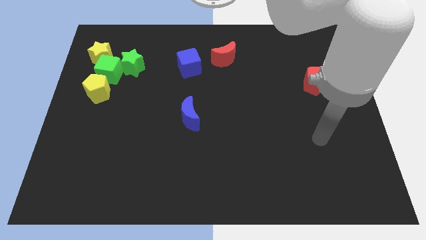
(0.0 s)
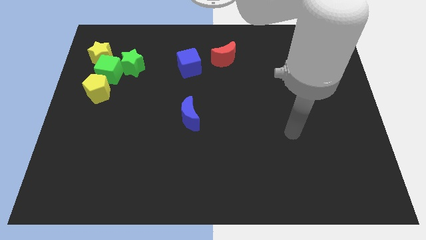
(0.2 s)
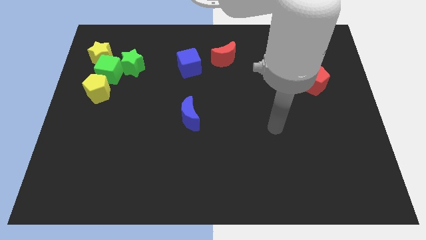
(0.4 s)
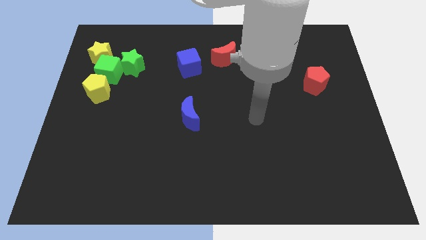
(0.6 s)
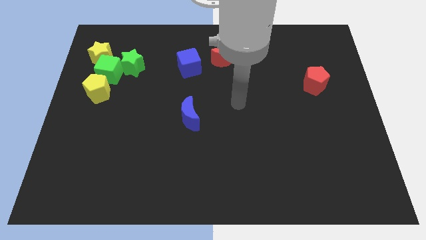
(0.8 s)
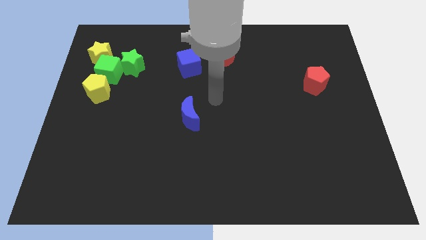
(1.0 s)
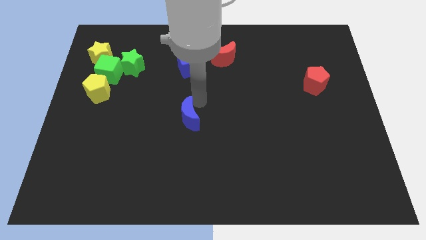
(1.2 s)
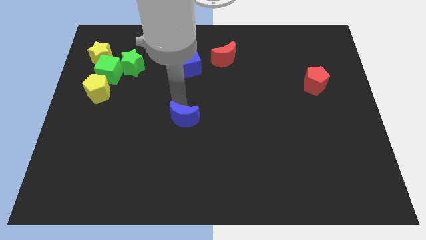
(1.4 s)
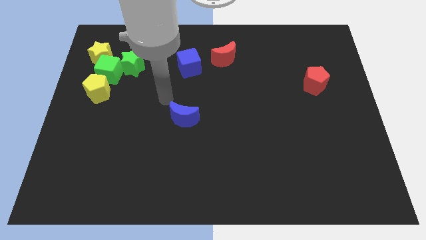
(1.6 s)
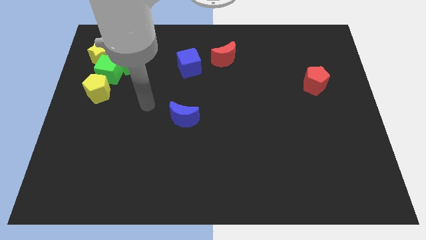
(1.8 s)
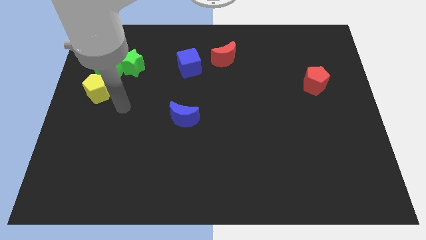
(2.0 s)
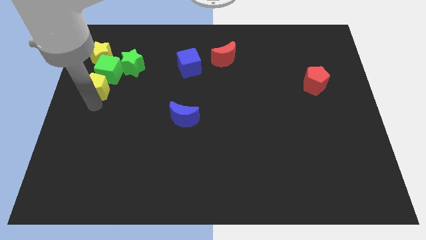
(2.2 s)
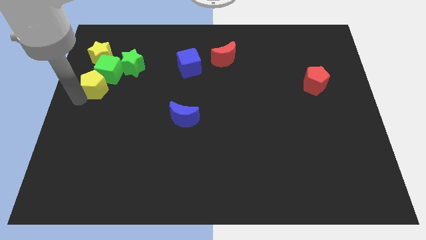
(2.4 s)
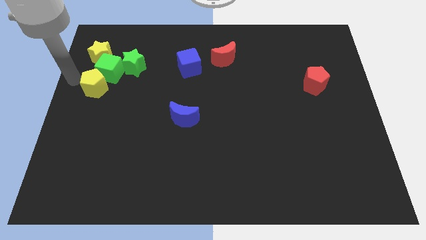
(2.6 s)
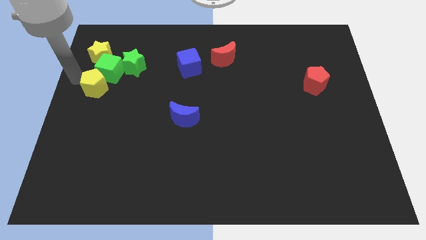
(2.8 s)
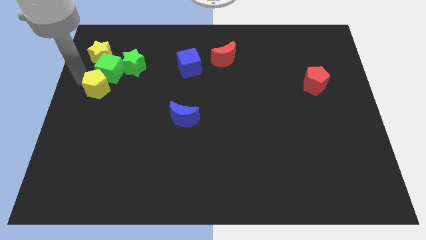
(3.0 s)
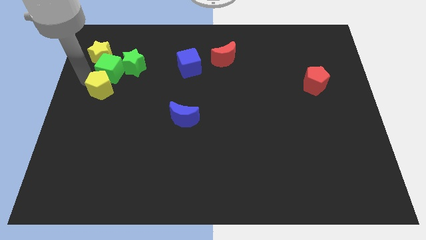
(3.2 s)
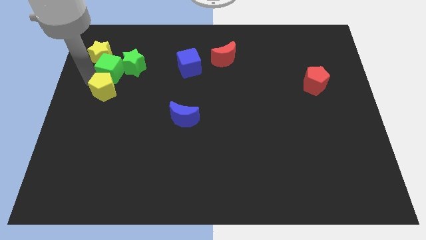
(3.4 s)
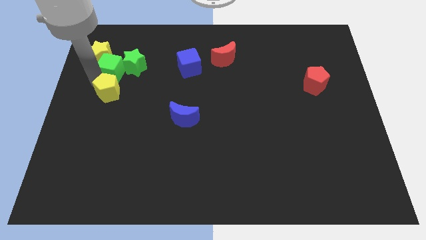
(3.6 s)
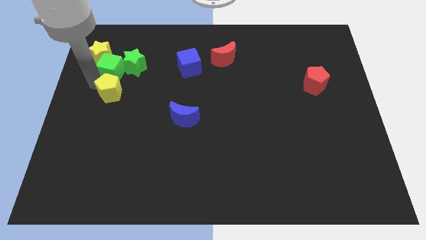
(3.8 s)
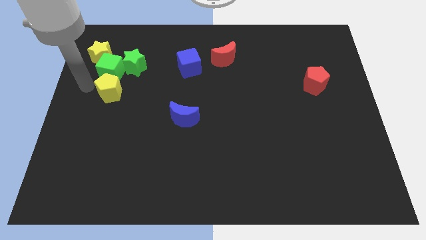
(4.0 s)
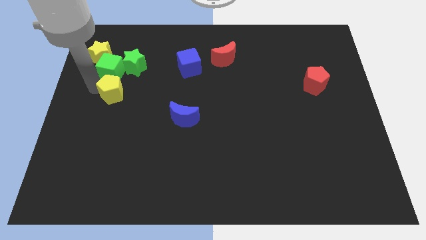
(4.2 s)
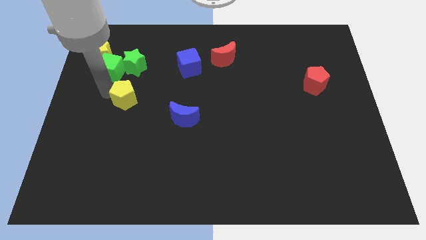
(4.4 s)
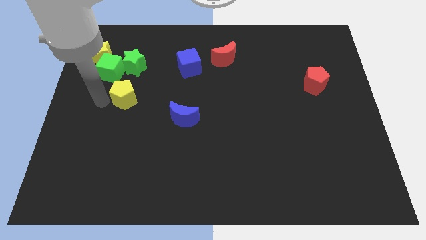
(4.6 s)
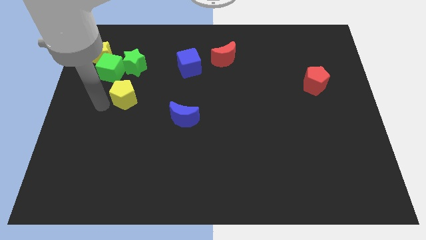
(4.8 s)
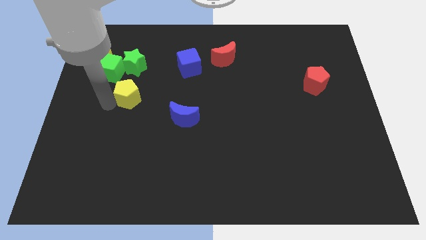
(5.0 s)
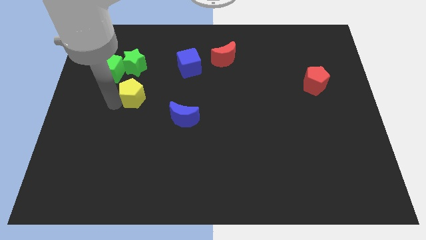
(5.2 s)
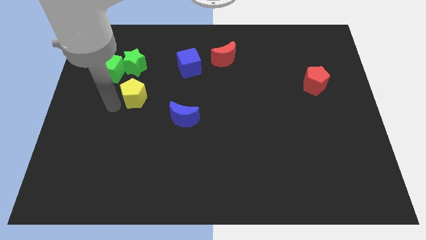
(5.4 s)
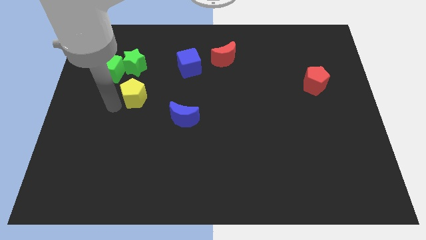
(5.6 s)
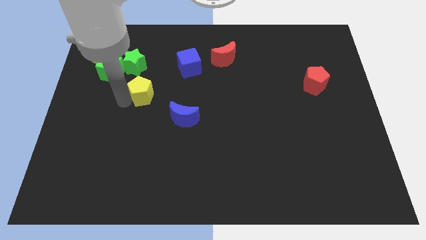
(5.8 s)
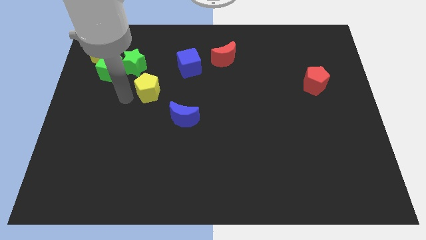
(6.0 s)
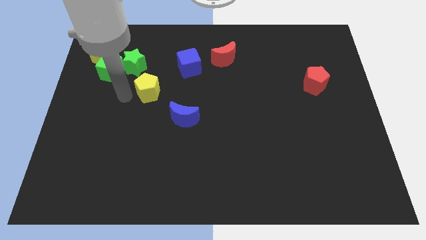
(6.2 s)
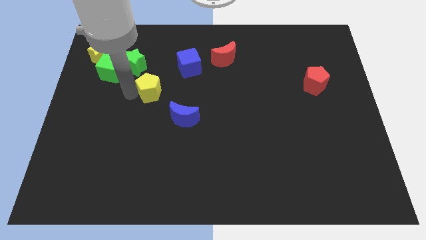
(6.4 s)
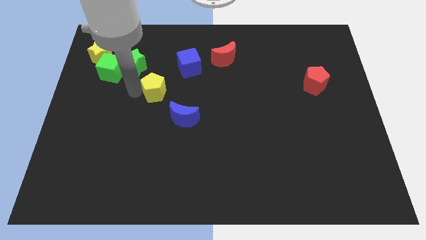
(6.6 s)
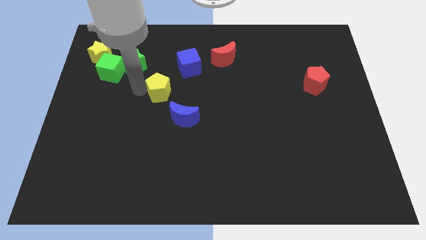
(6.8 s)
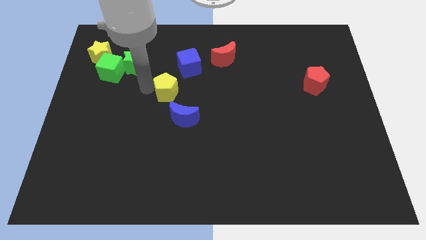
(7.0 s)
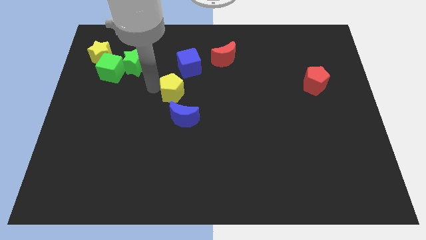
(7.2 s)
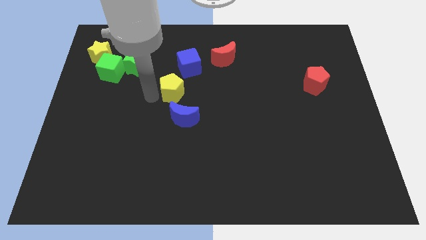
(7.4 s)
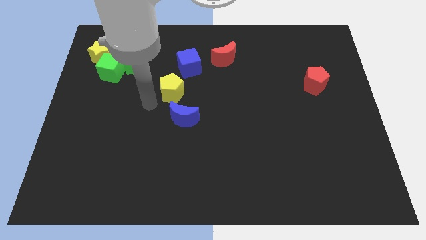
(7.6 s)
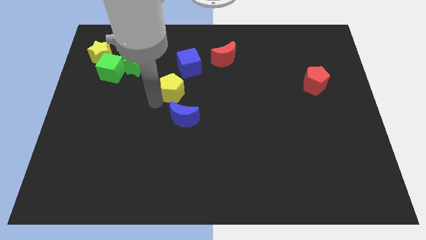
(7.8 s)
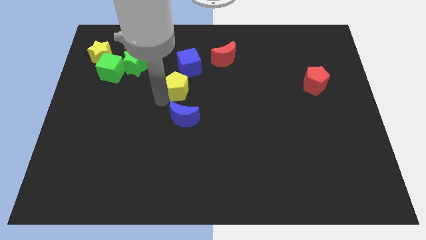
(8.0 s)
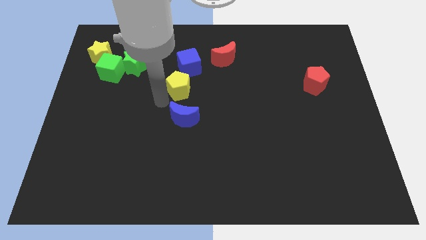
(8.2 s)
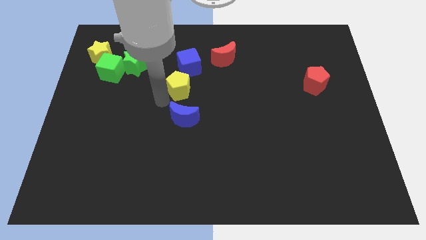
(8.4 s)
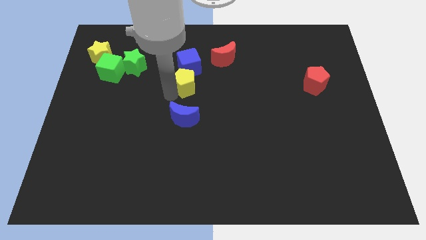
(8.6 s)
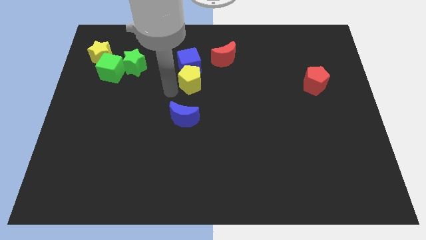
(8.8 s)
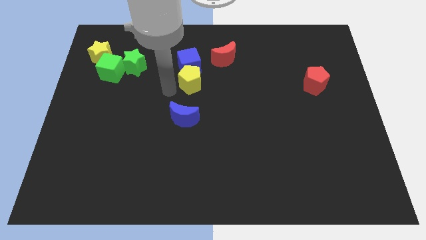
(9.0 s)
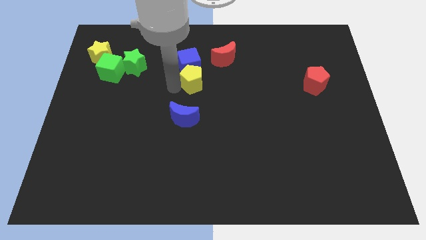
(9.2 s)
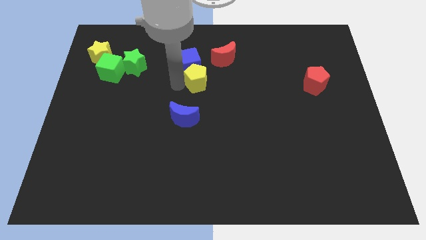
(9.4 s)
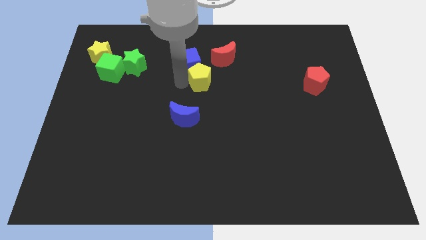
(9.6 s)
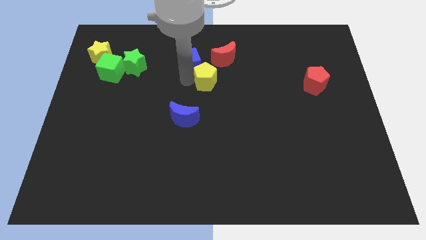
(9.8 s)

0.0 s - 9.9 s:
move the yellow pentagon just right of the blue cube

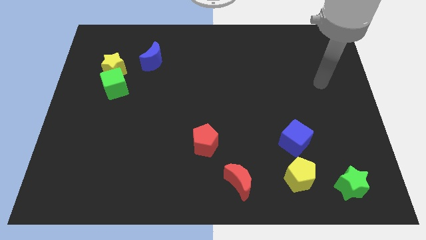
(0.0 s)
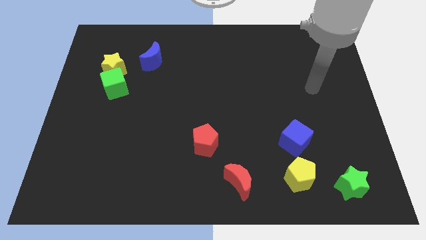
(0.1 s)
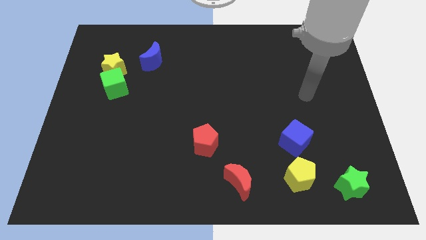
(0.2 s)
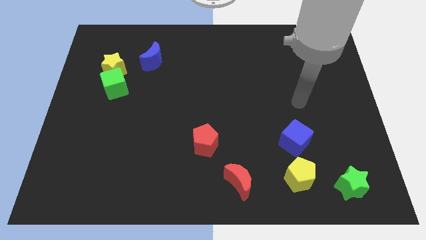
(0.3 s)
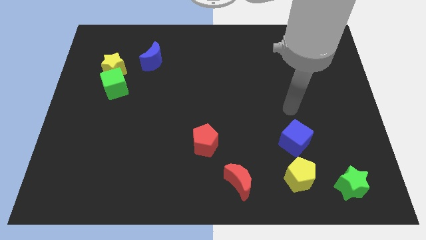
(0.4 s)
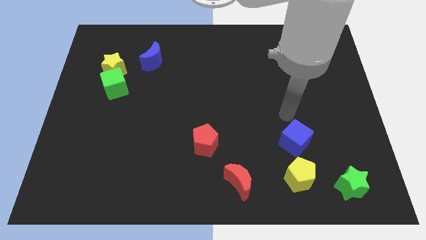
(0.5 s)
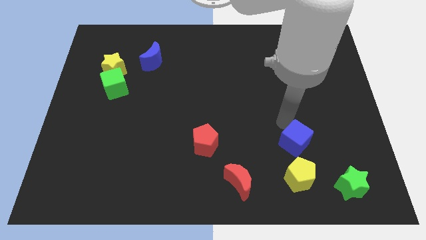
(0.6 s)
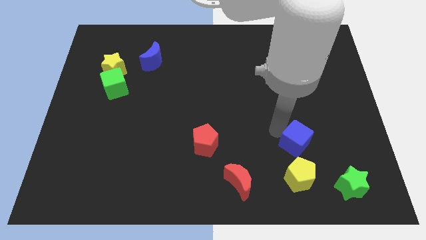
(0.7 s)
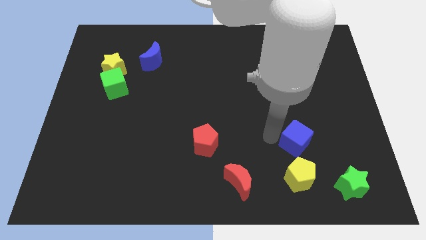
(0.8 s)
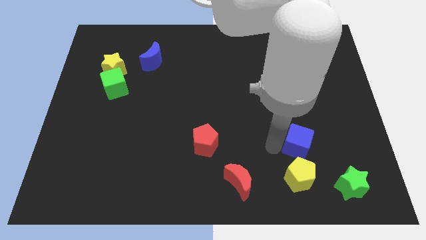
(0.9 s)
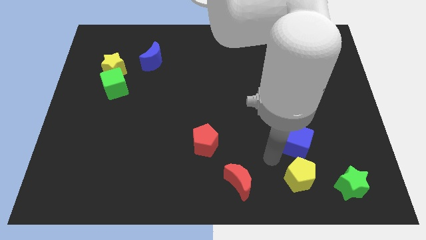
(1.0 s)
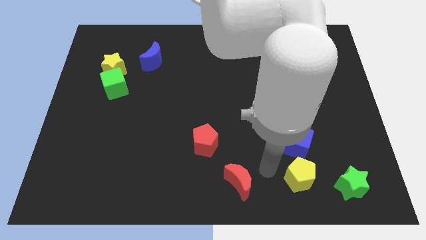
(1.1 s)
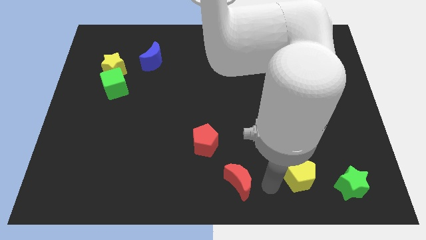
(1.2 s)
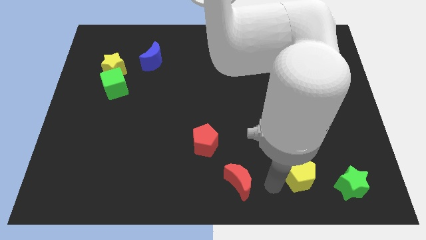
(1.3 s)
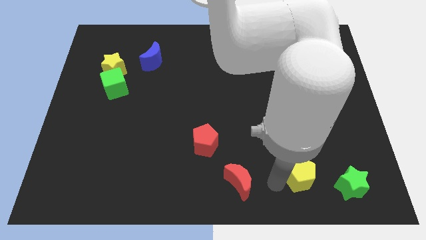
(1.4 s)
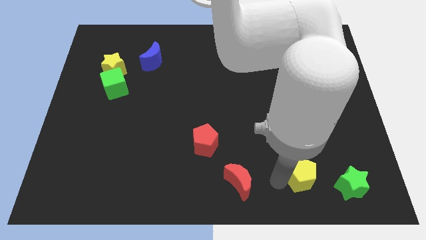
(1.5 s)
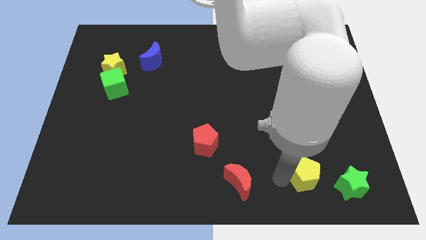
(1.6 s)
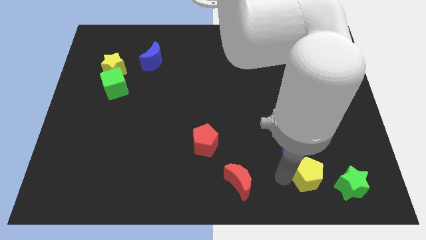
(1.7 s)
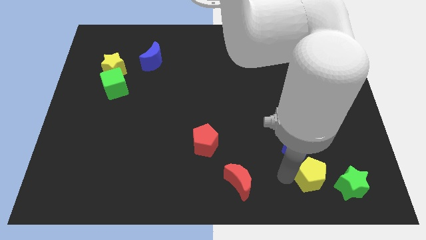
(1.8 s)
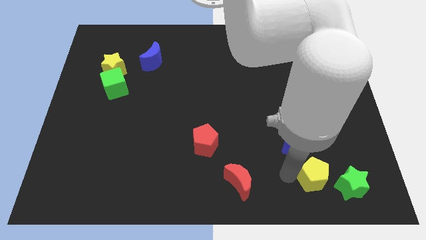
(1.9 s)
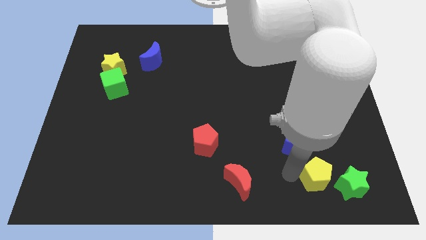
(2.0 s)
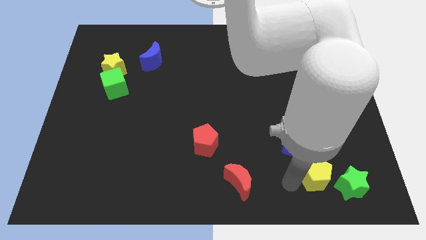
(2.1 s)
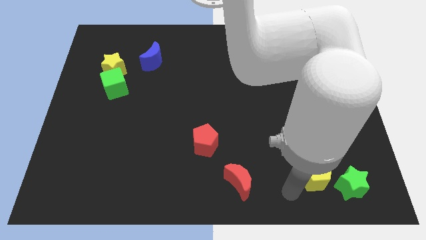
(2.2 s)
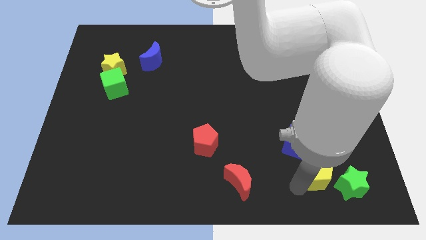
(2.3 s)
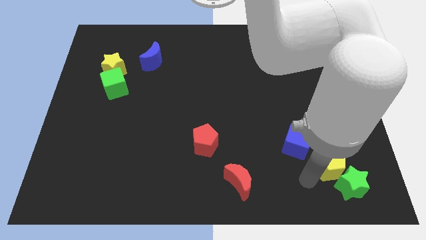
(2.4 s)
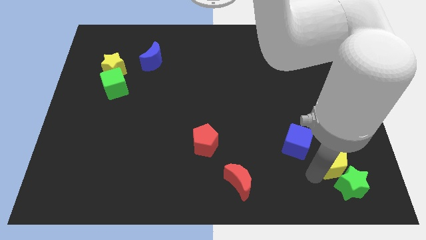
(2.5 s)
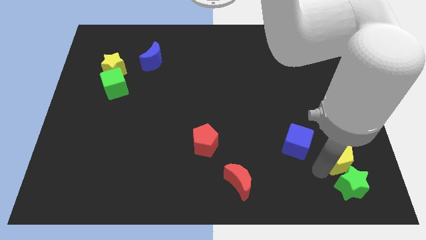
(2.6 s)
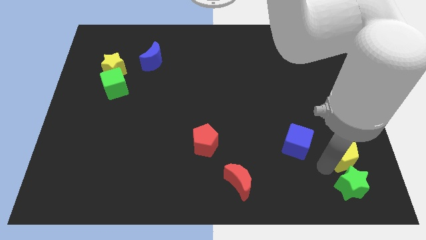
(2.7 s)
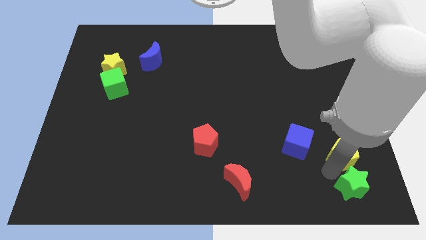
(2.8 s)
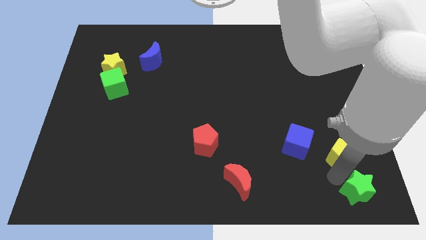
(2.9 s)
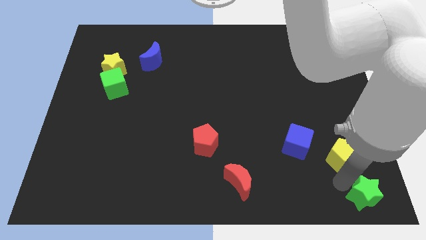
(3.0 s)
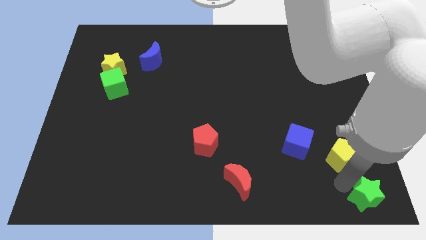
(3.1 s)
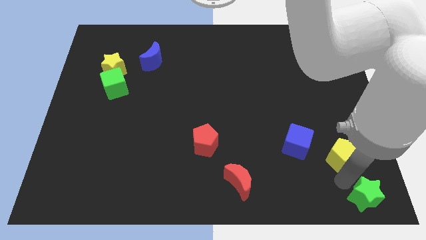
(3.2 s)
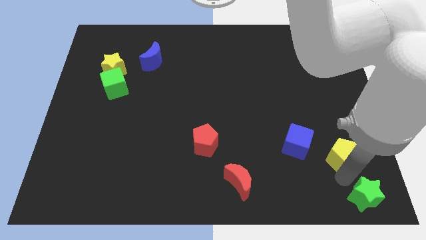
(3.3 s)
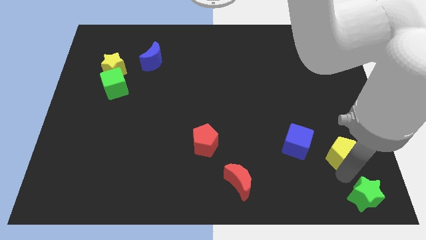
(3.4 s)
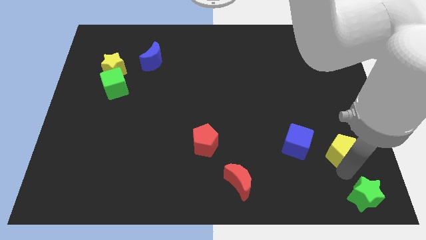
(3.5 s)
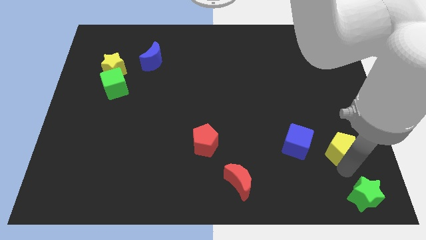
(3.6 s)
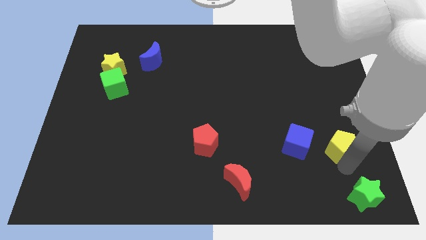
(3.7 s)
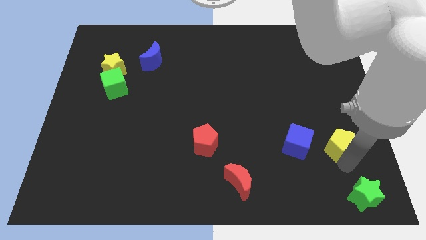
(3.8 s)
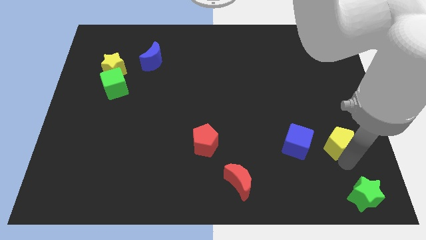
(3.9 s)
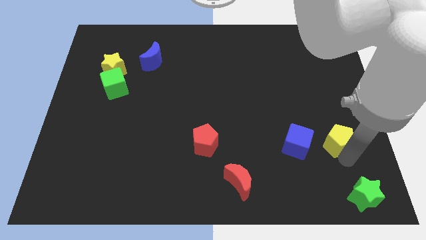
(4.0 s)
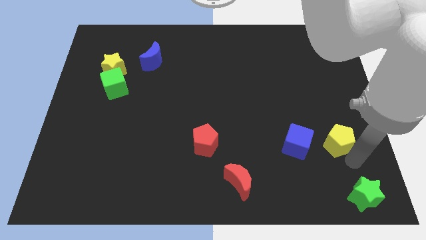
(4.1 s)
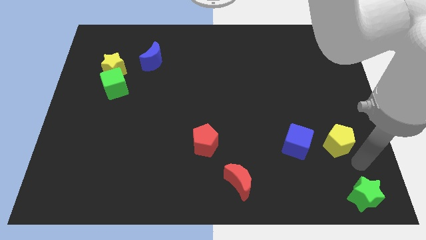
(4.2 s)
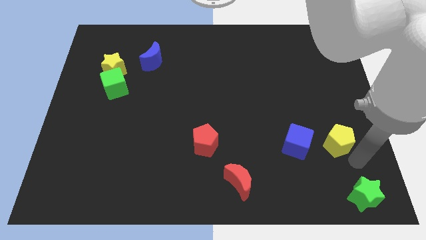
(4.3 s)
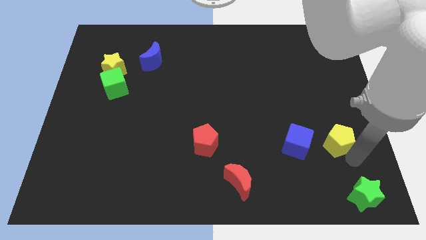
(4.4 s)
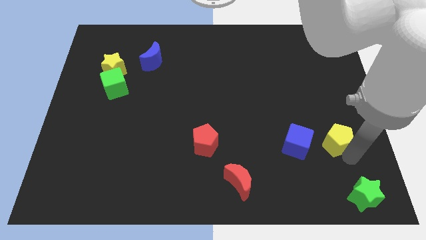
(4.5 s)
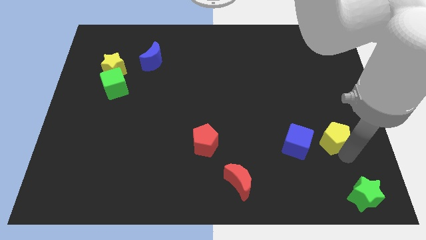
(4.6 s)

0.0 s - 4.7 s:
slide the yellow pentagon to the top right side of the blue cube
